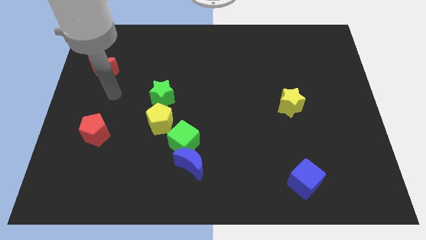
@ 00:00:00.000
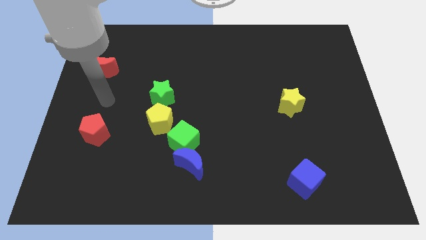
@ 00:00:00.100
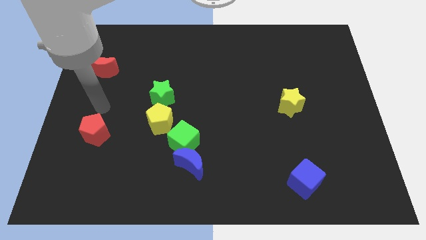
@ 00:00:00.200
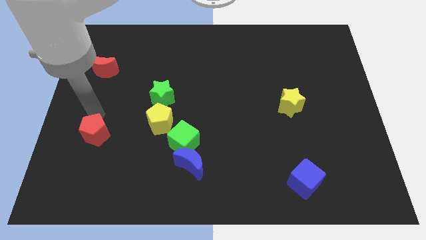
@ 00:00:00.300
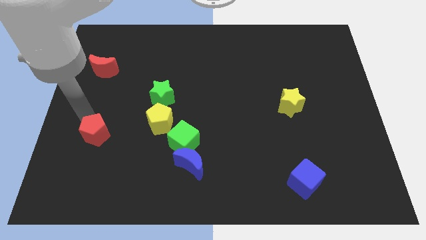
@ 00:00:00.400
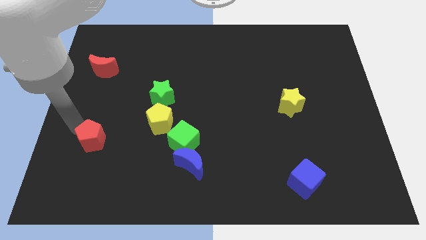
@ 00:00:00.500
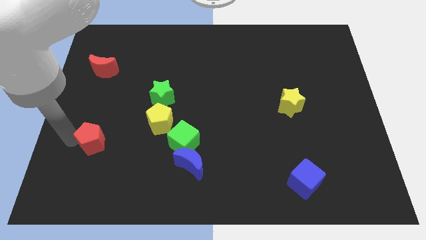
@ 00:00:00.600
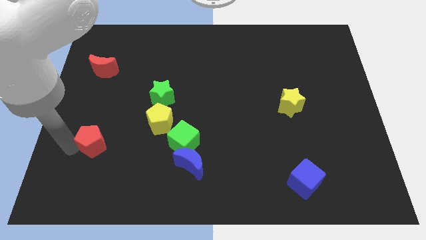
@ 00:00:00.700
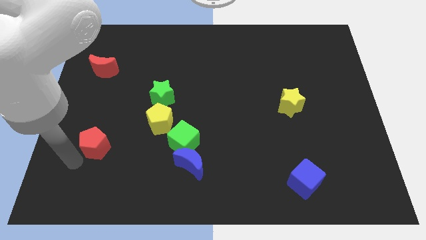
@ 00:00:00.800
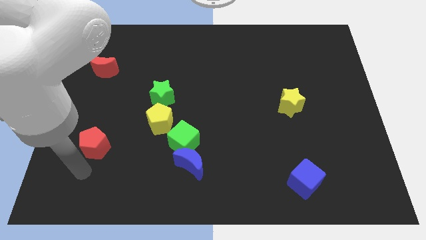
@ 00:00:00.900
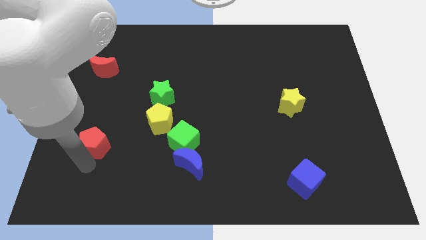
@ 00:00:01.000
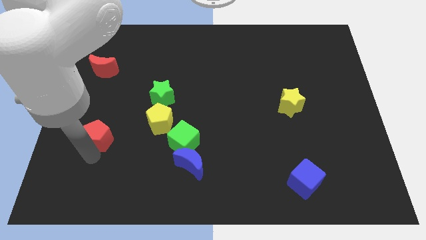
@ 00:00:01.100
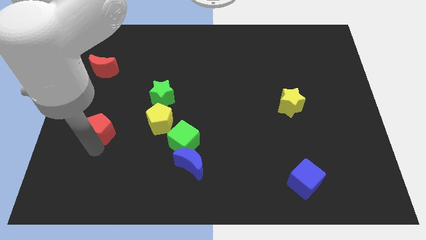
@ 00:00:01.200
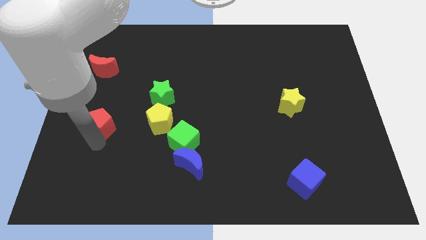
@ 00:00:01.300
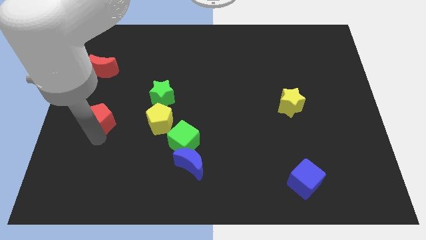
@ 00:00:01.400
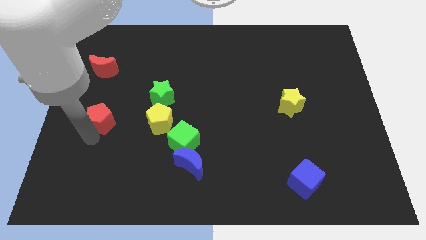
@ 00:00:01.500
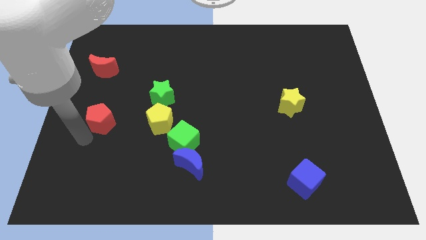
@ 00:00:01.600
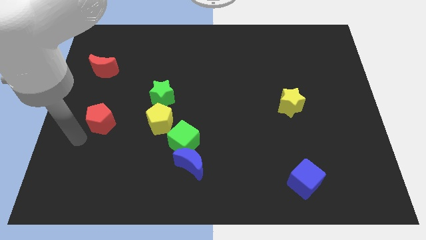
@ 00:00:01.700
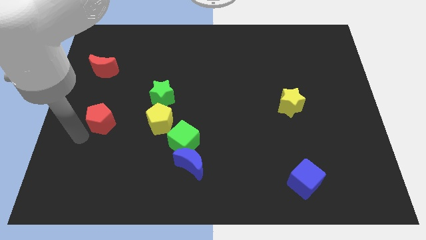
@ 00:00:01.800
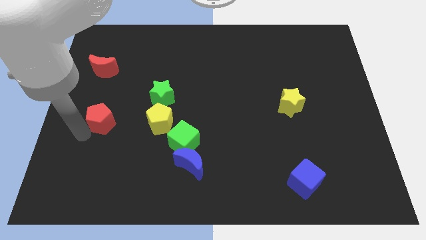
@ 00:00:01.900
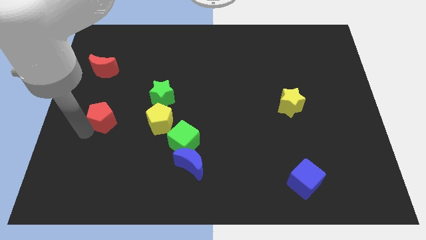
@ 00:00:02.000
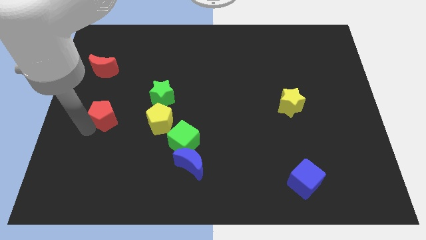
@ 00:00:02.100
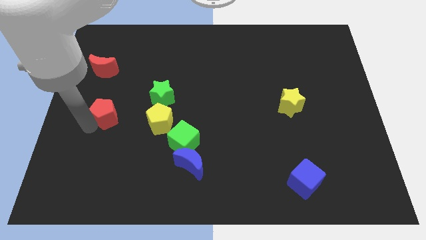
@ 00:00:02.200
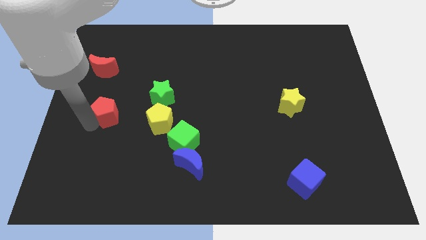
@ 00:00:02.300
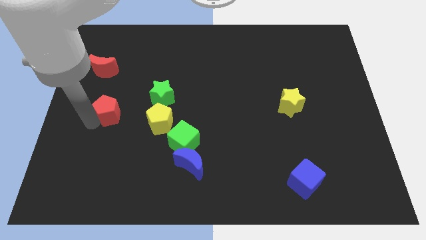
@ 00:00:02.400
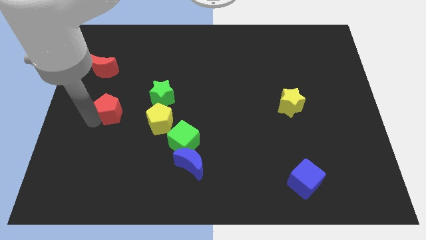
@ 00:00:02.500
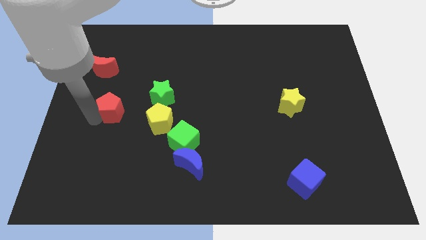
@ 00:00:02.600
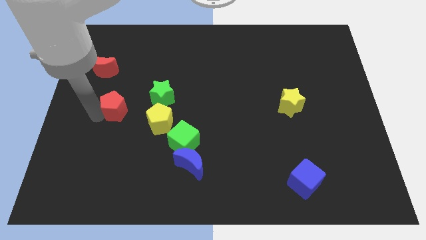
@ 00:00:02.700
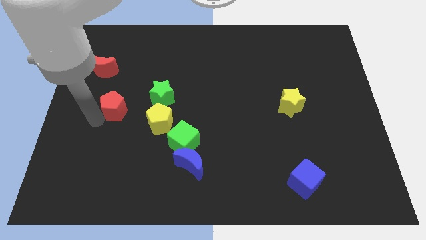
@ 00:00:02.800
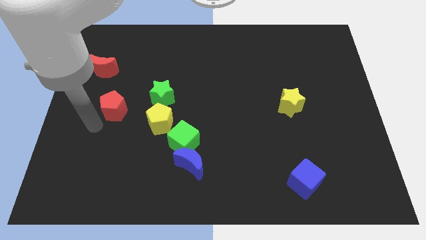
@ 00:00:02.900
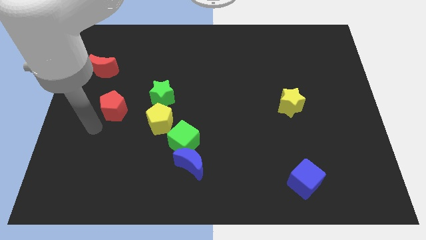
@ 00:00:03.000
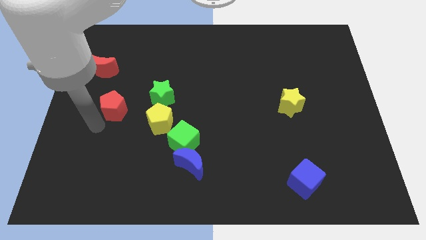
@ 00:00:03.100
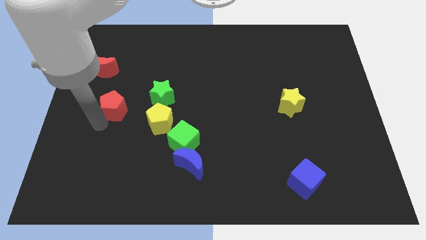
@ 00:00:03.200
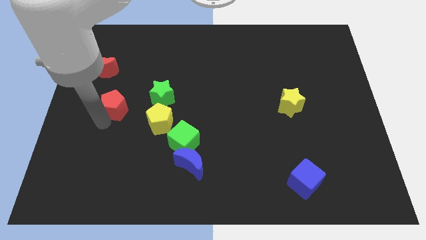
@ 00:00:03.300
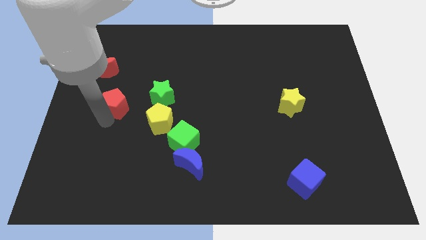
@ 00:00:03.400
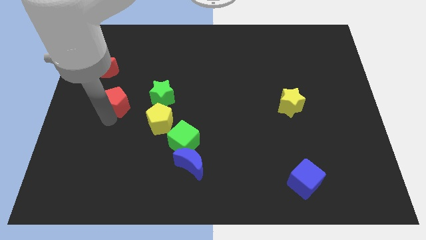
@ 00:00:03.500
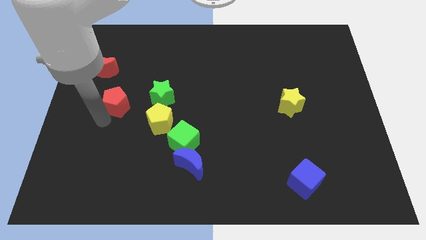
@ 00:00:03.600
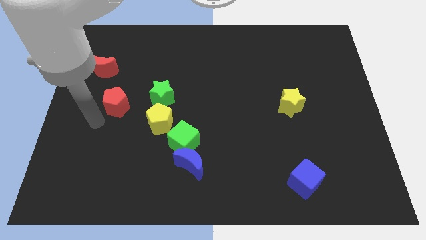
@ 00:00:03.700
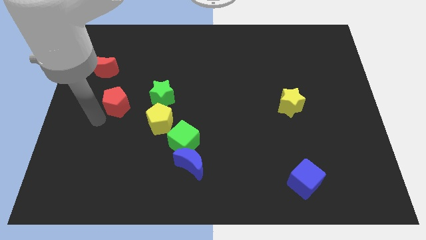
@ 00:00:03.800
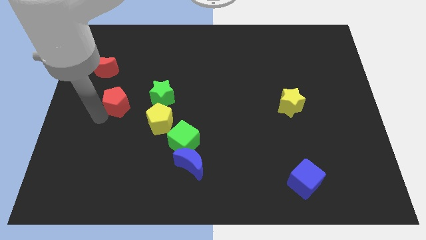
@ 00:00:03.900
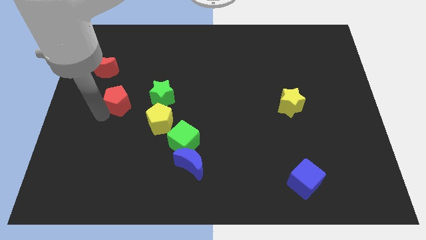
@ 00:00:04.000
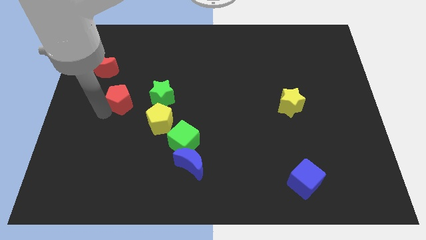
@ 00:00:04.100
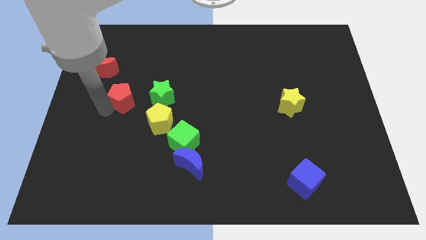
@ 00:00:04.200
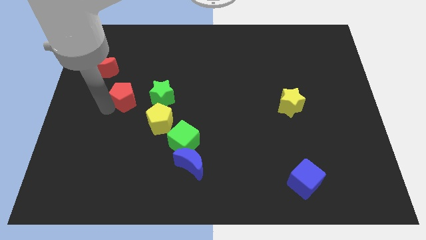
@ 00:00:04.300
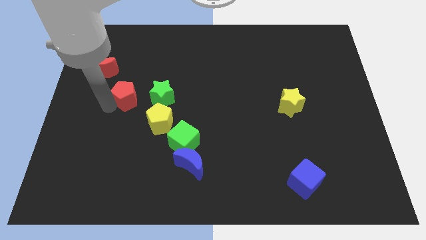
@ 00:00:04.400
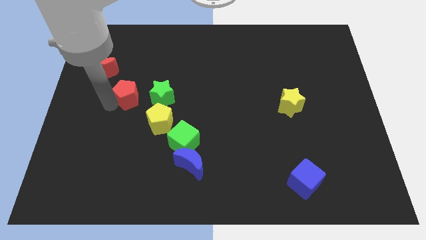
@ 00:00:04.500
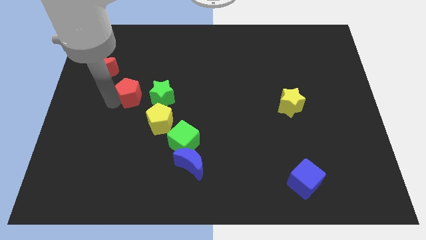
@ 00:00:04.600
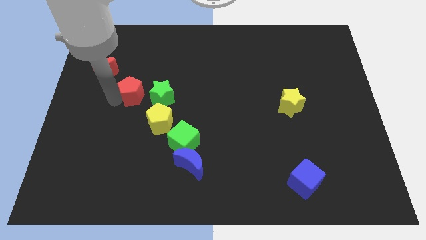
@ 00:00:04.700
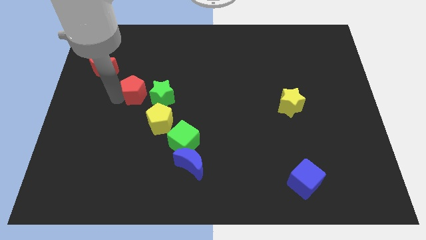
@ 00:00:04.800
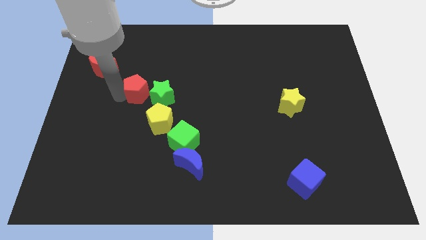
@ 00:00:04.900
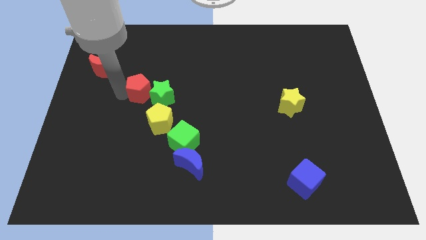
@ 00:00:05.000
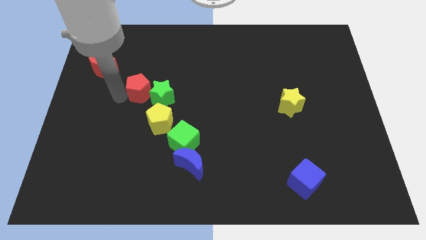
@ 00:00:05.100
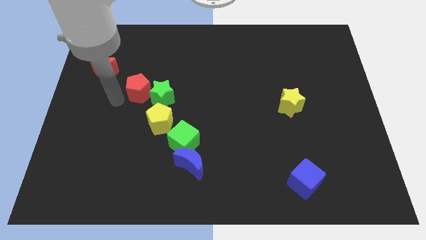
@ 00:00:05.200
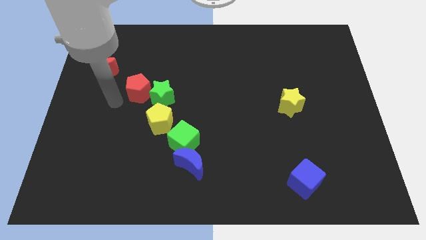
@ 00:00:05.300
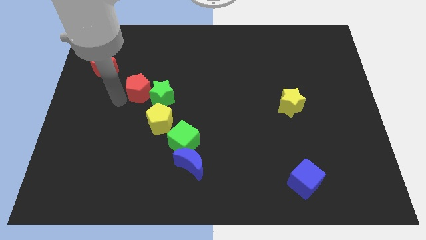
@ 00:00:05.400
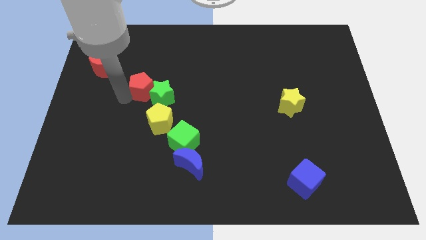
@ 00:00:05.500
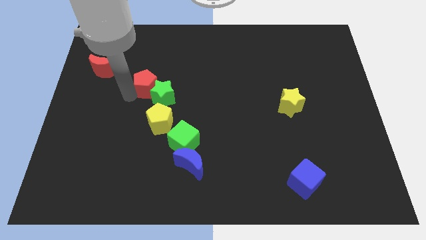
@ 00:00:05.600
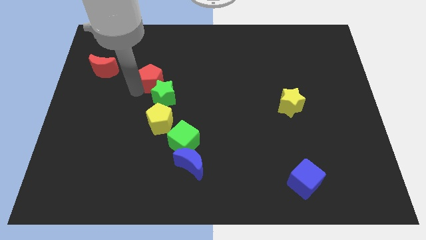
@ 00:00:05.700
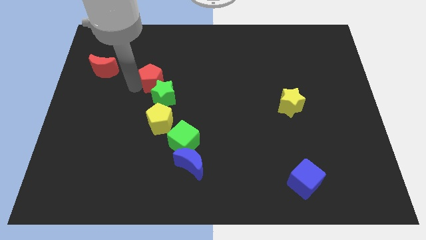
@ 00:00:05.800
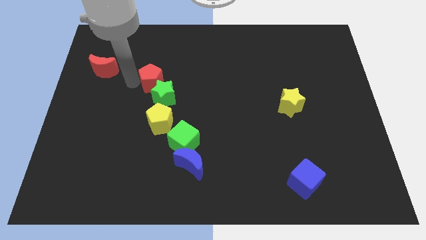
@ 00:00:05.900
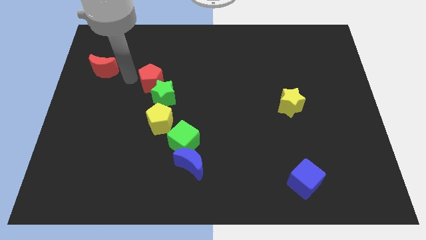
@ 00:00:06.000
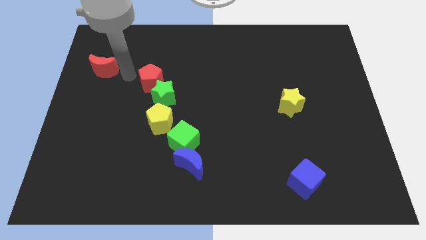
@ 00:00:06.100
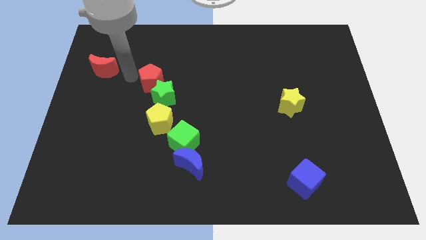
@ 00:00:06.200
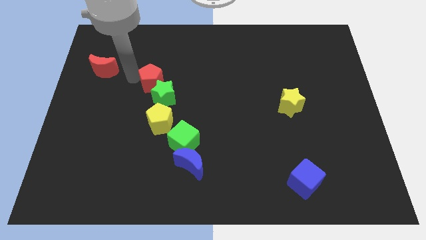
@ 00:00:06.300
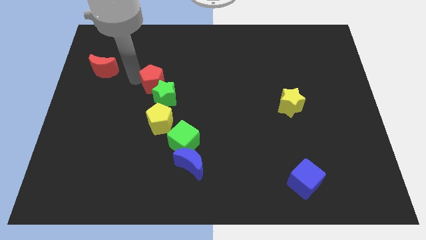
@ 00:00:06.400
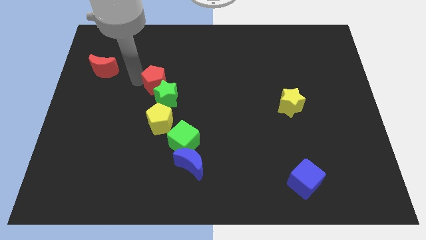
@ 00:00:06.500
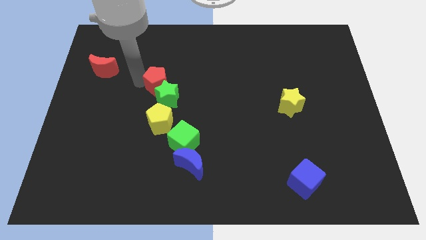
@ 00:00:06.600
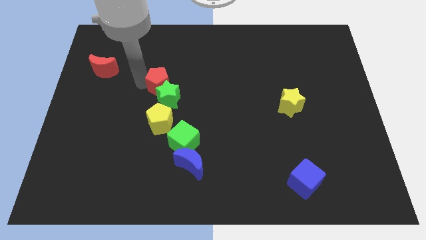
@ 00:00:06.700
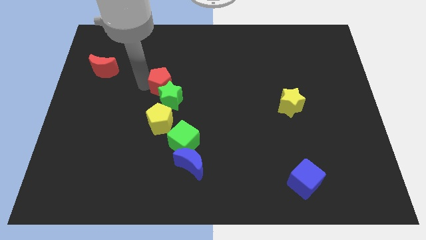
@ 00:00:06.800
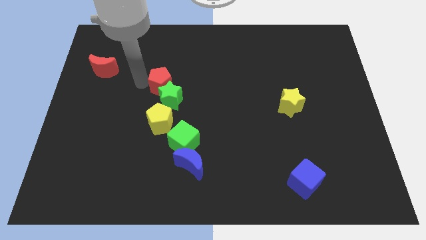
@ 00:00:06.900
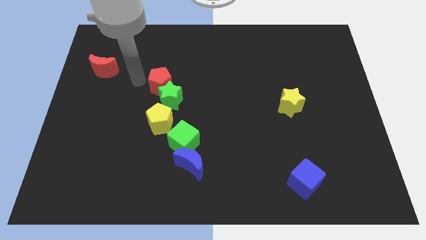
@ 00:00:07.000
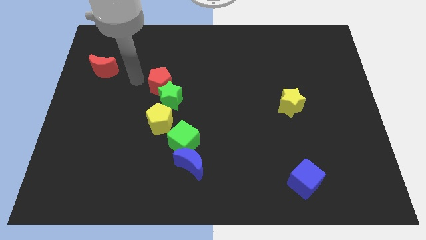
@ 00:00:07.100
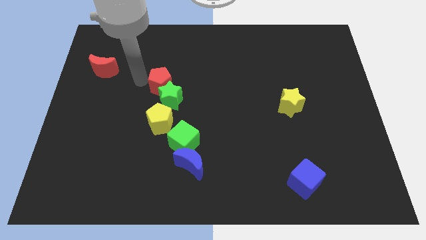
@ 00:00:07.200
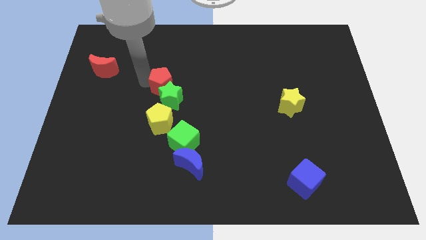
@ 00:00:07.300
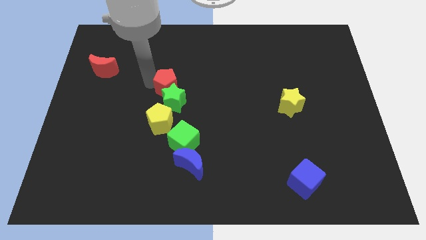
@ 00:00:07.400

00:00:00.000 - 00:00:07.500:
put the red pentagon to the center of the board
